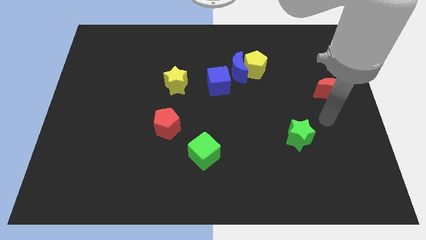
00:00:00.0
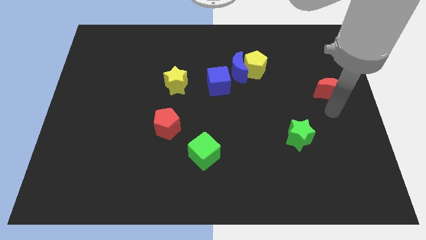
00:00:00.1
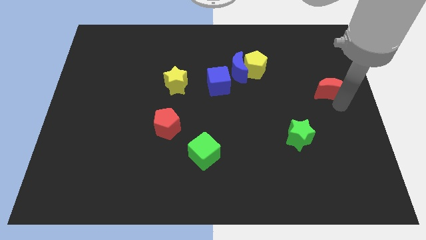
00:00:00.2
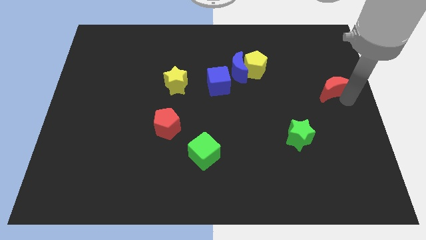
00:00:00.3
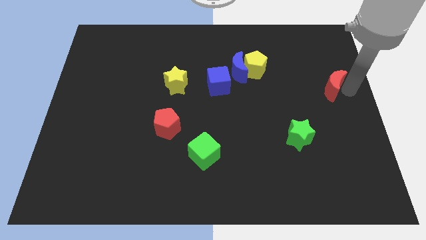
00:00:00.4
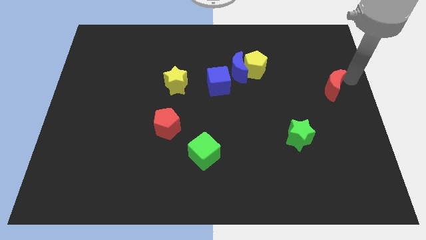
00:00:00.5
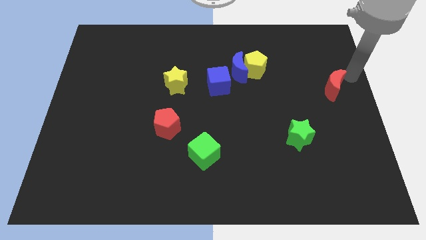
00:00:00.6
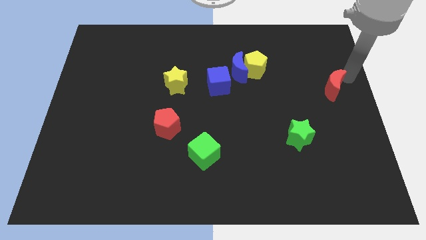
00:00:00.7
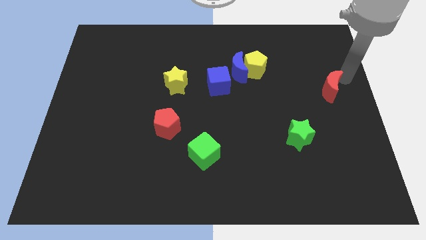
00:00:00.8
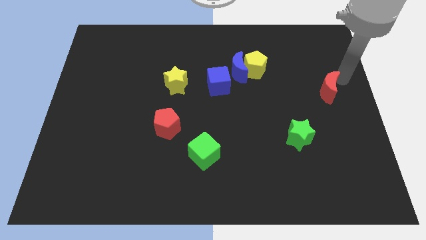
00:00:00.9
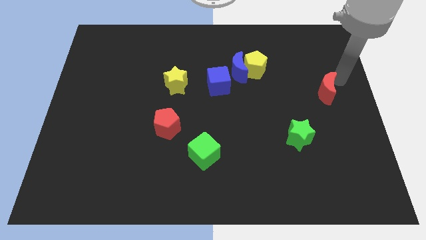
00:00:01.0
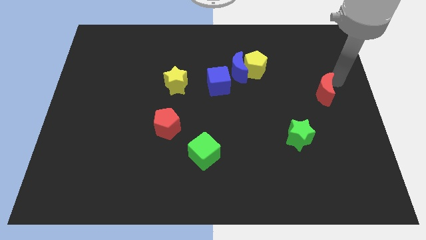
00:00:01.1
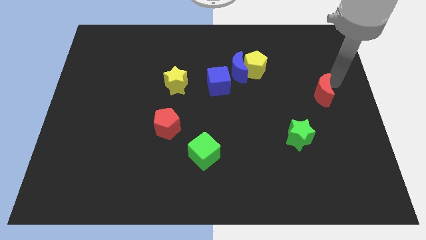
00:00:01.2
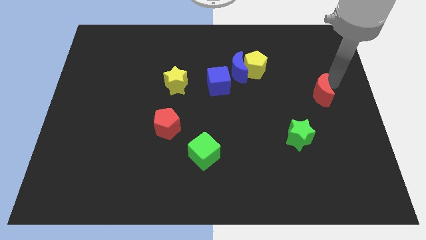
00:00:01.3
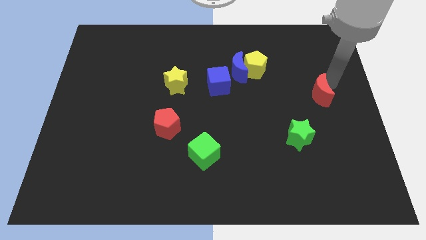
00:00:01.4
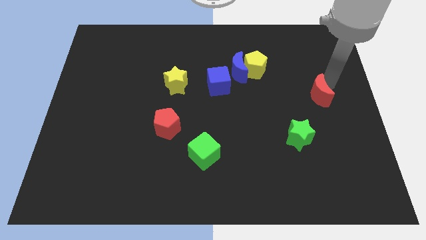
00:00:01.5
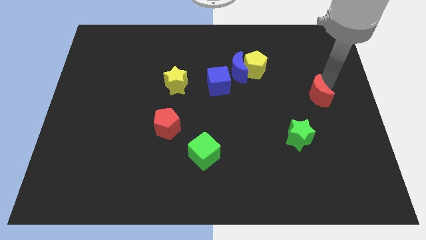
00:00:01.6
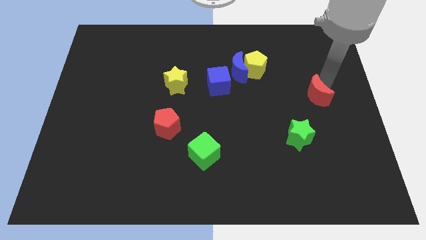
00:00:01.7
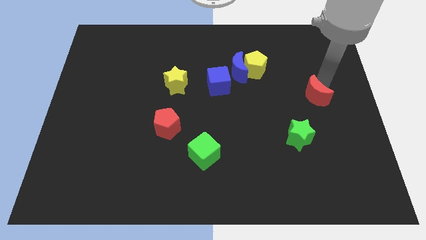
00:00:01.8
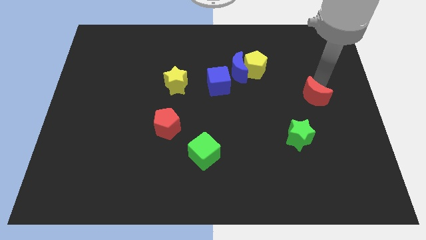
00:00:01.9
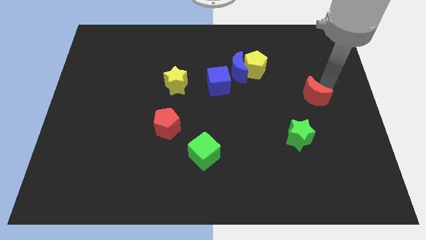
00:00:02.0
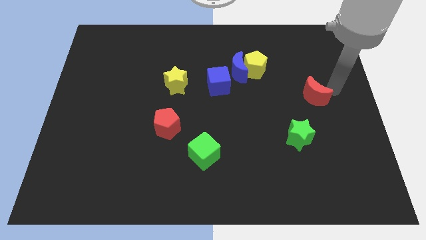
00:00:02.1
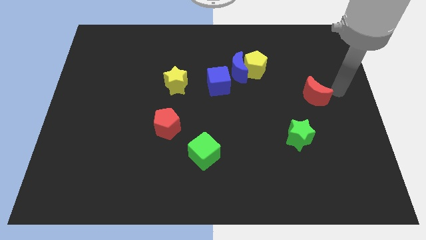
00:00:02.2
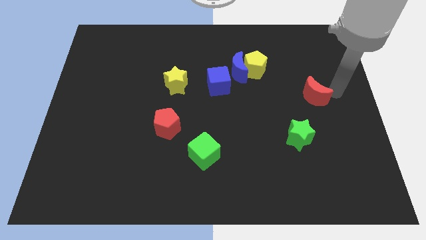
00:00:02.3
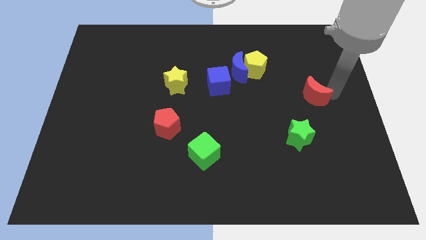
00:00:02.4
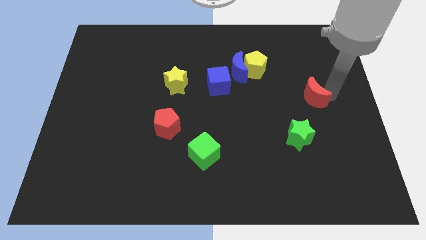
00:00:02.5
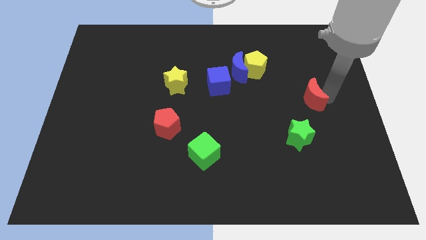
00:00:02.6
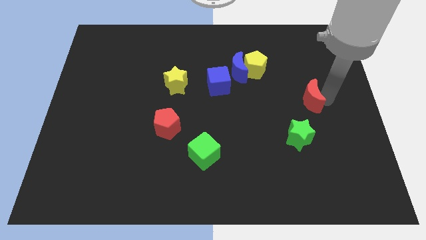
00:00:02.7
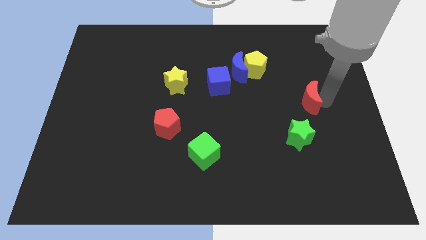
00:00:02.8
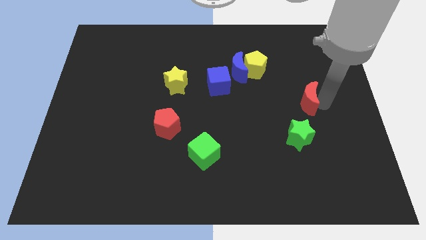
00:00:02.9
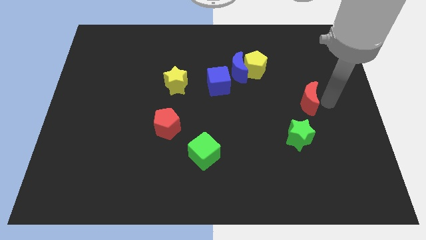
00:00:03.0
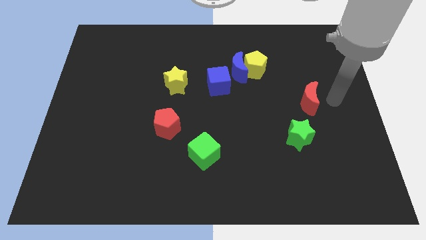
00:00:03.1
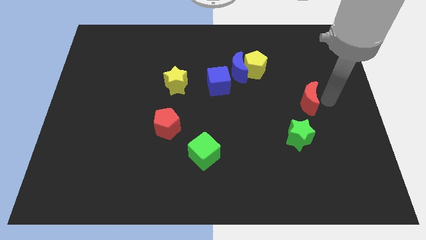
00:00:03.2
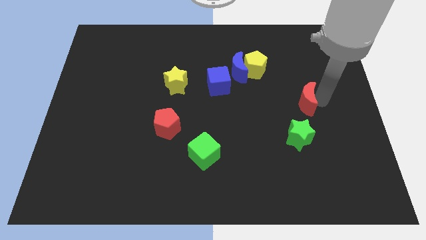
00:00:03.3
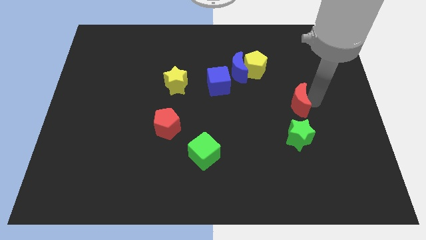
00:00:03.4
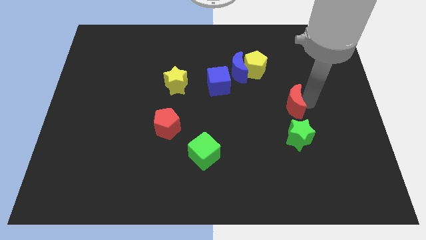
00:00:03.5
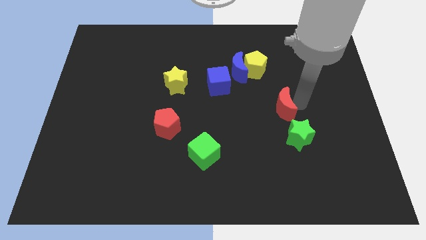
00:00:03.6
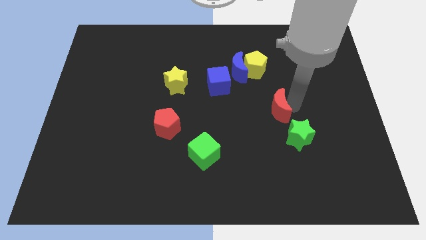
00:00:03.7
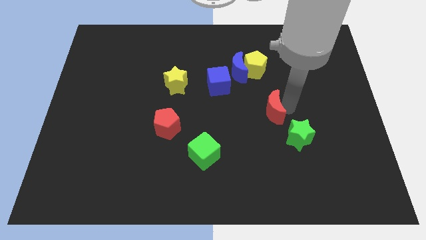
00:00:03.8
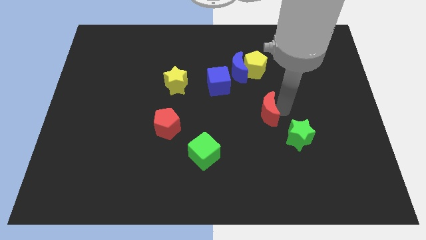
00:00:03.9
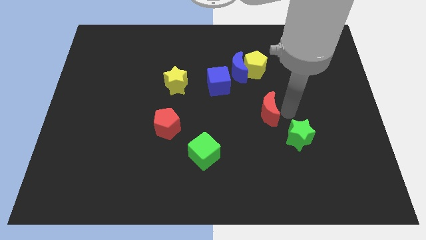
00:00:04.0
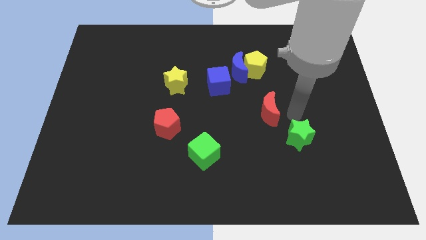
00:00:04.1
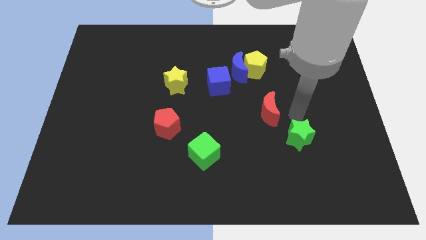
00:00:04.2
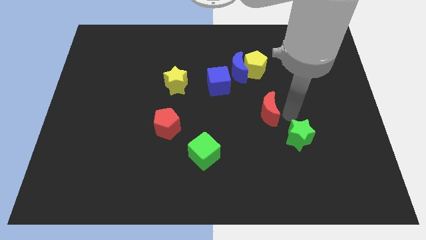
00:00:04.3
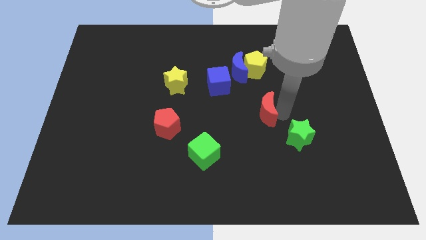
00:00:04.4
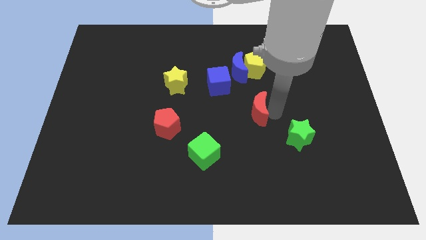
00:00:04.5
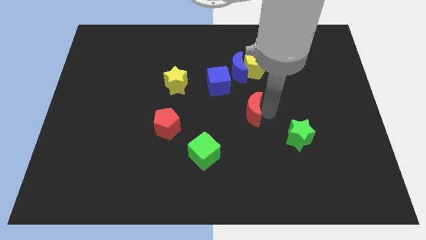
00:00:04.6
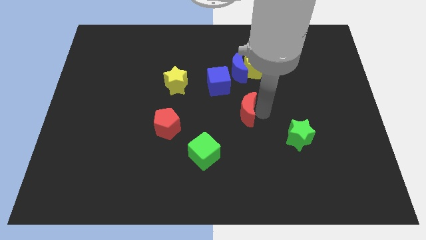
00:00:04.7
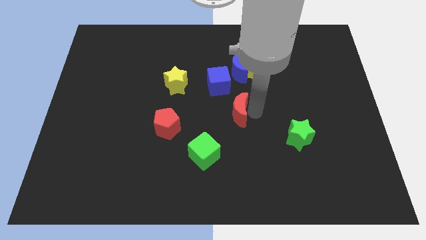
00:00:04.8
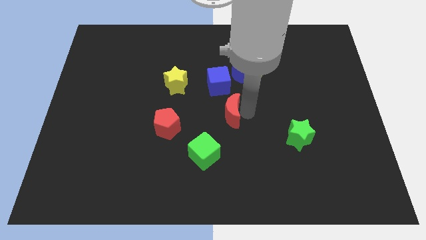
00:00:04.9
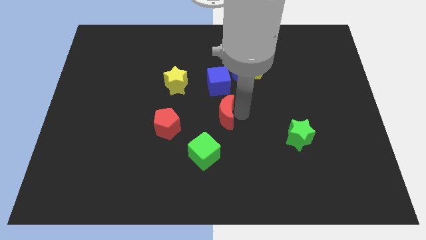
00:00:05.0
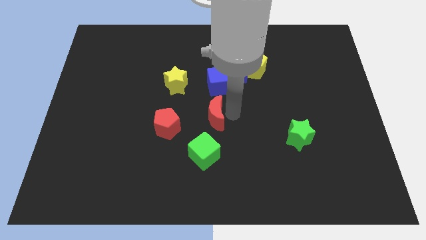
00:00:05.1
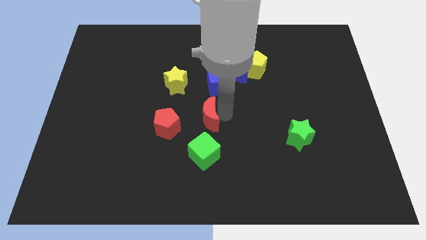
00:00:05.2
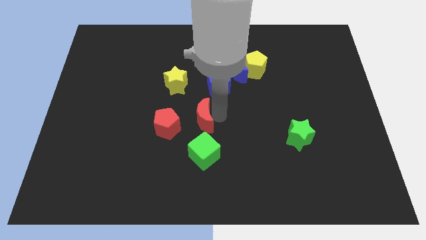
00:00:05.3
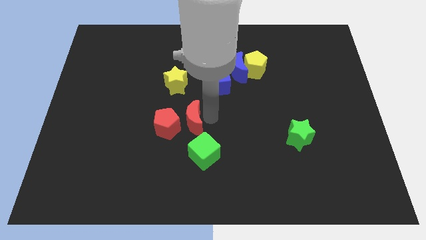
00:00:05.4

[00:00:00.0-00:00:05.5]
put the red moon close to the red pentagon
